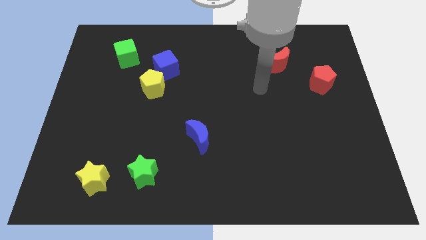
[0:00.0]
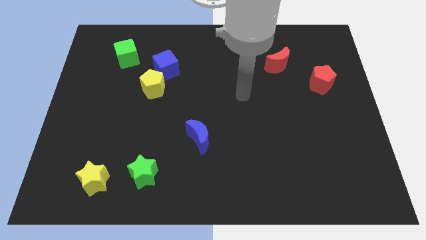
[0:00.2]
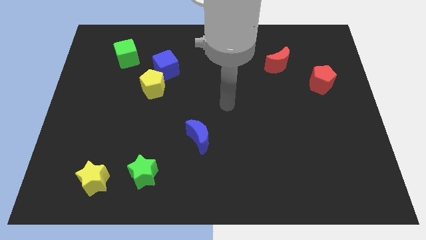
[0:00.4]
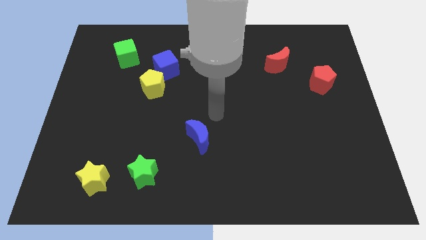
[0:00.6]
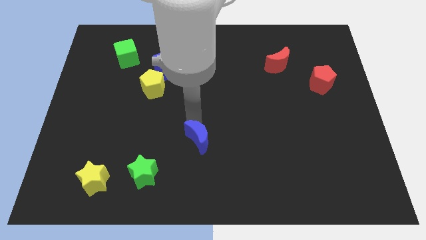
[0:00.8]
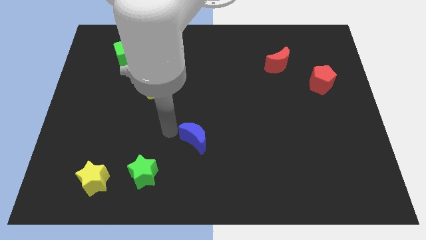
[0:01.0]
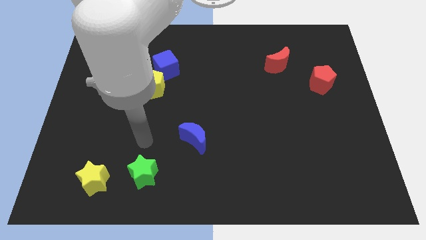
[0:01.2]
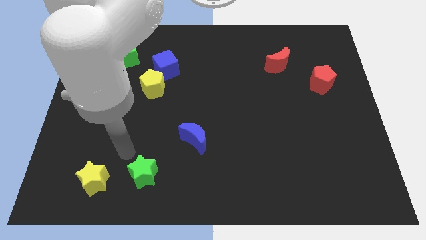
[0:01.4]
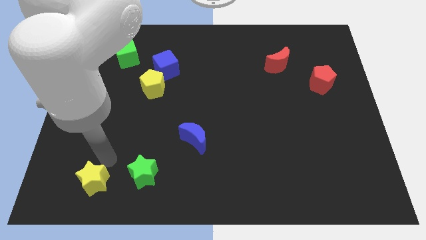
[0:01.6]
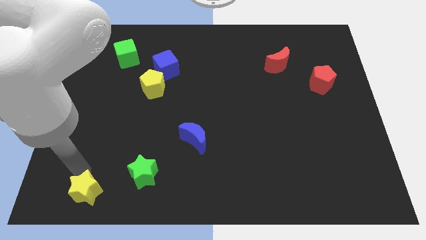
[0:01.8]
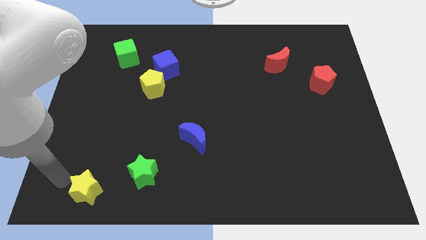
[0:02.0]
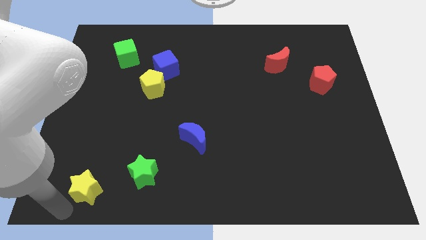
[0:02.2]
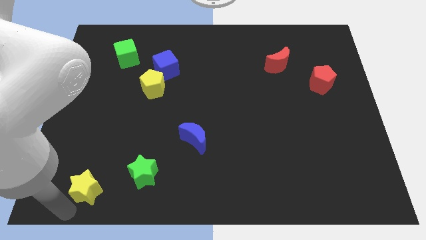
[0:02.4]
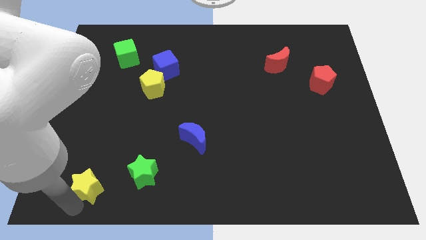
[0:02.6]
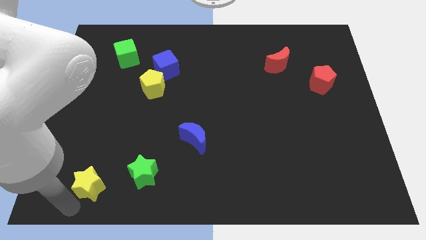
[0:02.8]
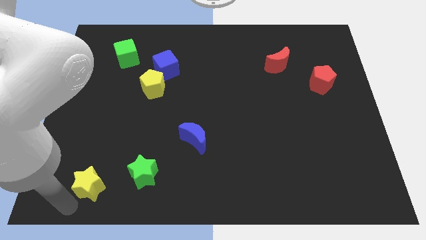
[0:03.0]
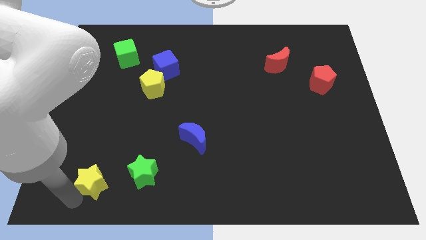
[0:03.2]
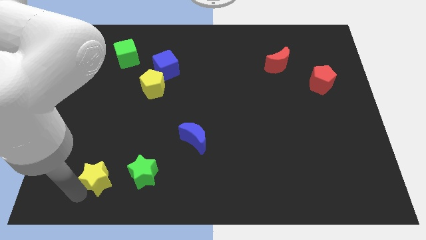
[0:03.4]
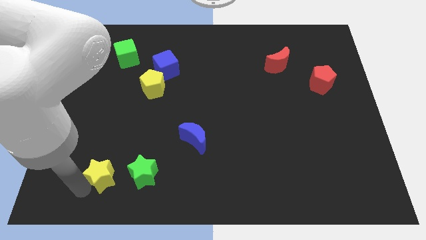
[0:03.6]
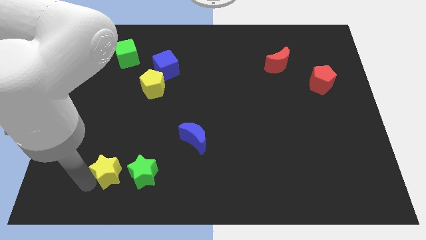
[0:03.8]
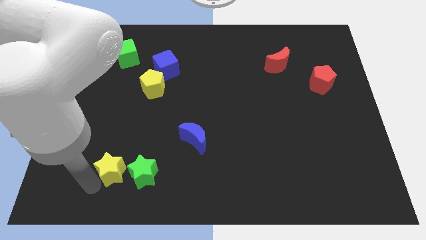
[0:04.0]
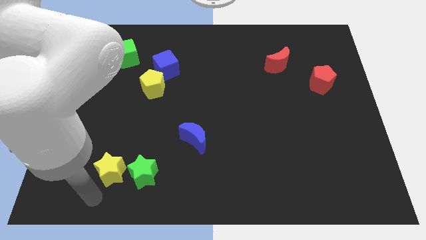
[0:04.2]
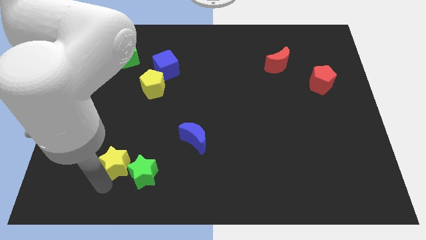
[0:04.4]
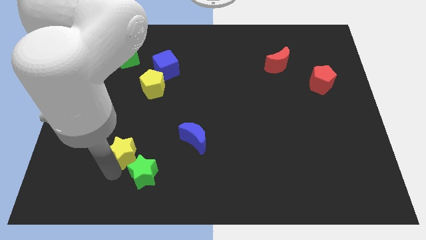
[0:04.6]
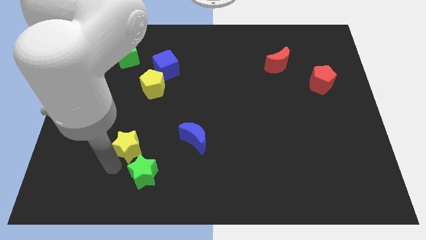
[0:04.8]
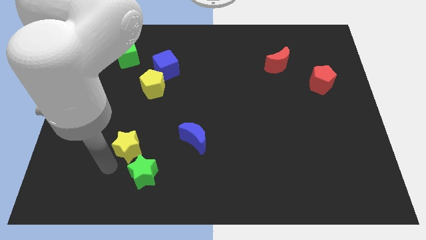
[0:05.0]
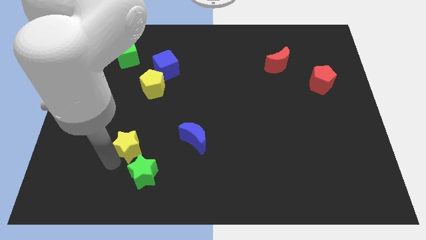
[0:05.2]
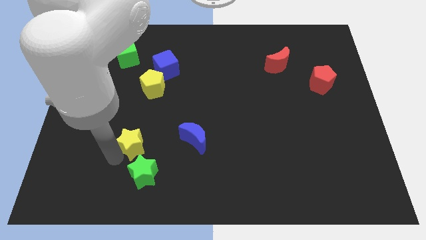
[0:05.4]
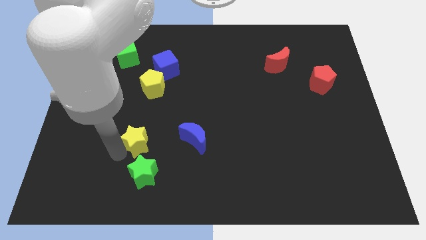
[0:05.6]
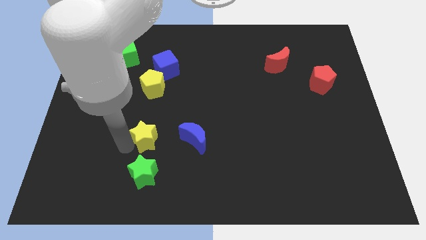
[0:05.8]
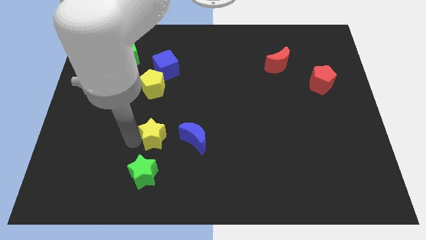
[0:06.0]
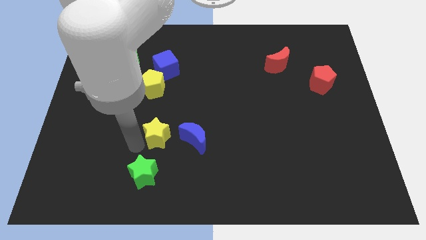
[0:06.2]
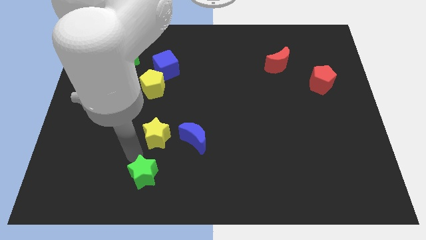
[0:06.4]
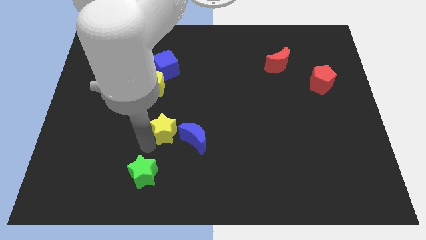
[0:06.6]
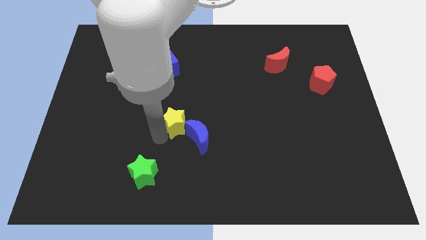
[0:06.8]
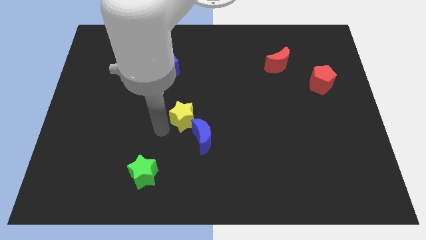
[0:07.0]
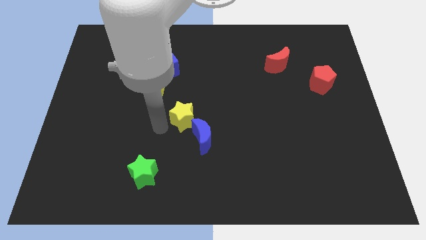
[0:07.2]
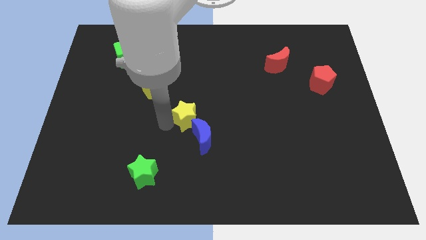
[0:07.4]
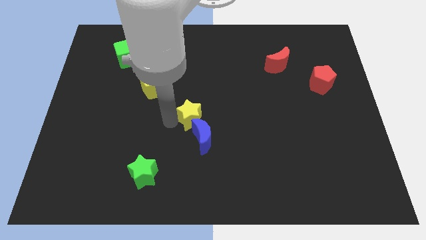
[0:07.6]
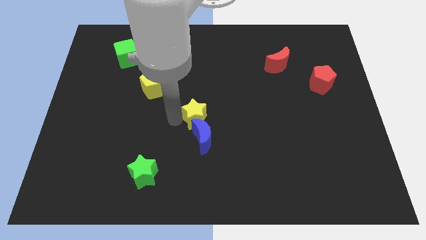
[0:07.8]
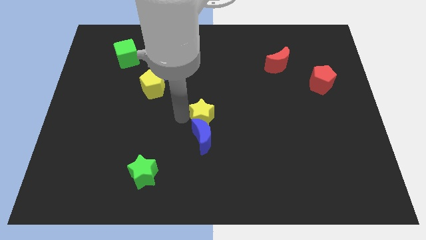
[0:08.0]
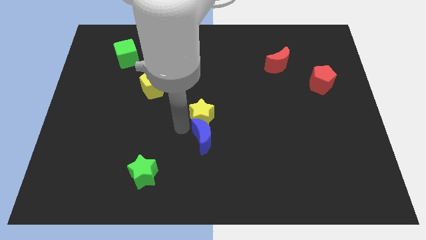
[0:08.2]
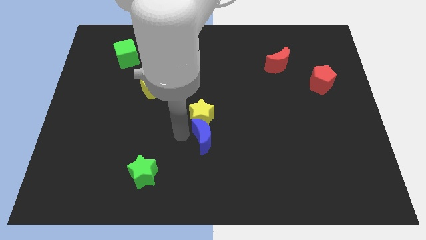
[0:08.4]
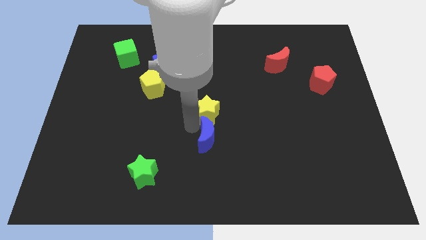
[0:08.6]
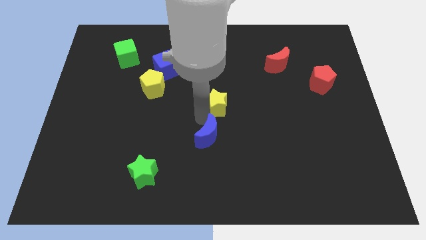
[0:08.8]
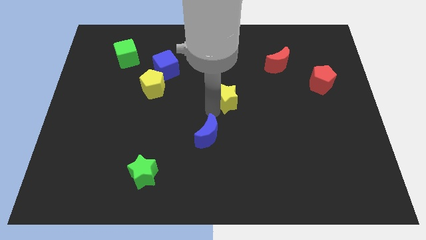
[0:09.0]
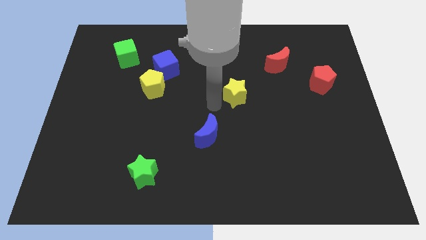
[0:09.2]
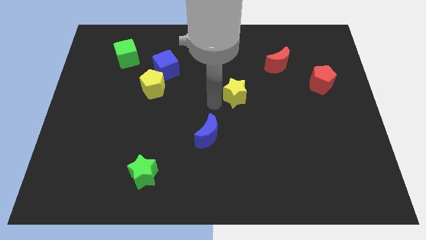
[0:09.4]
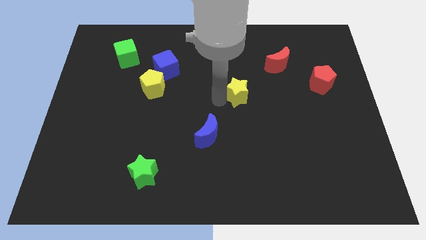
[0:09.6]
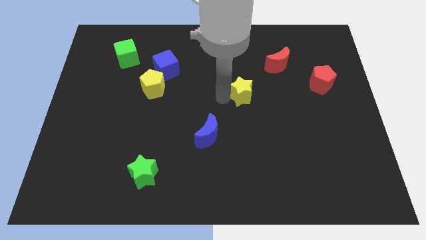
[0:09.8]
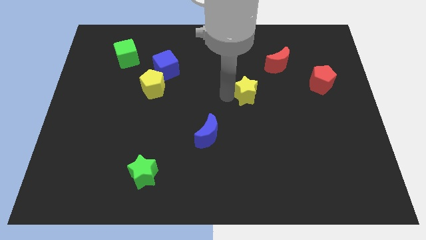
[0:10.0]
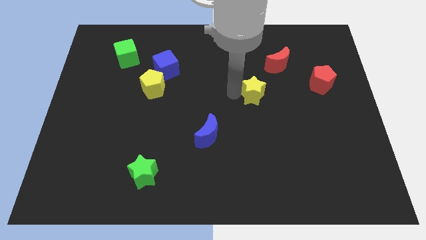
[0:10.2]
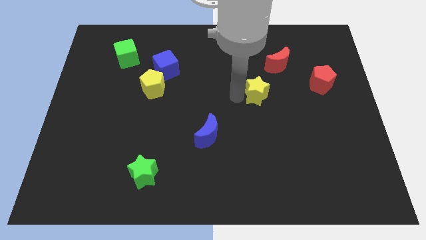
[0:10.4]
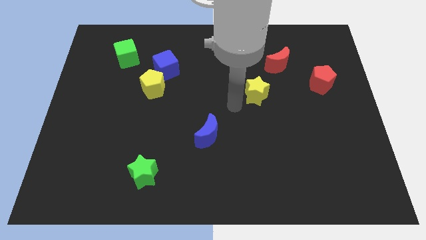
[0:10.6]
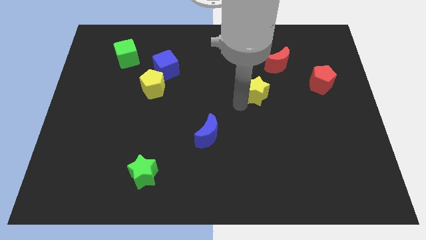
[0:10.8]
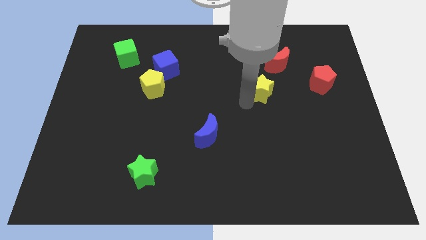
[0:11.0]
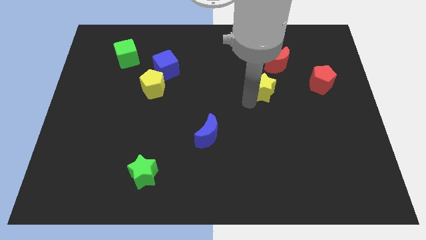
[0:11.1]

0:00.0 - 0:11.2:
move the yellow star to the left side of the red pentagon

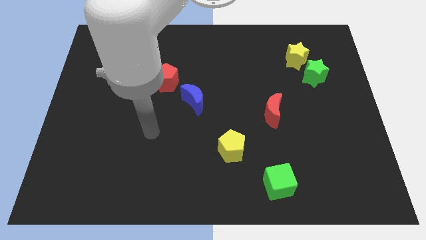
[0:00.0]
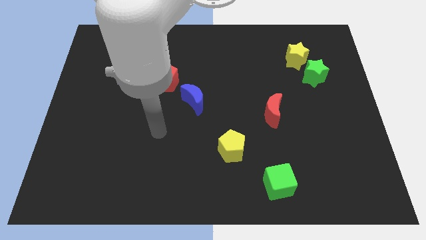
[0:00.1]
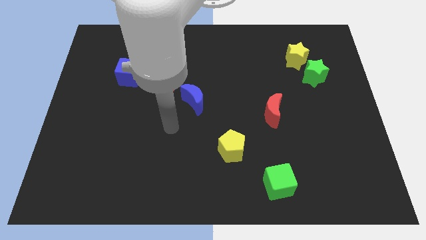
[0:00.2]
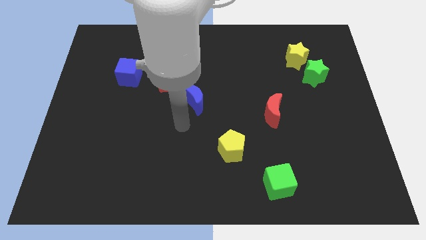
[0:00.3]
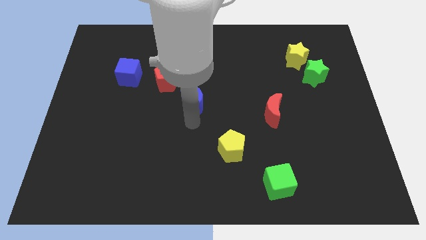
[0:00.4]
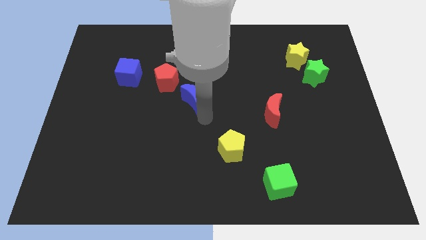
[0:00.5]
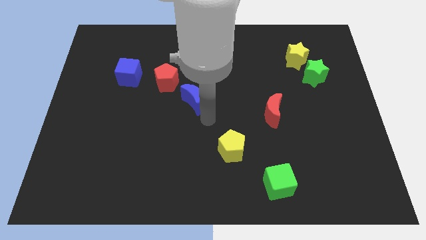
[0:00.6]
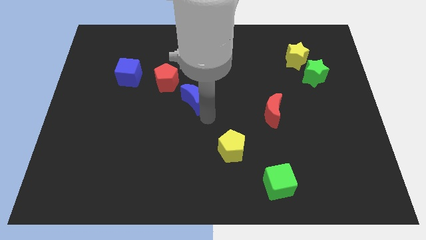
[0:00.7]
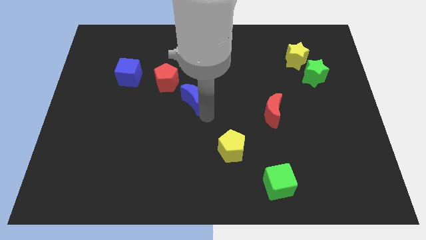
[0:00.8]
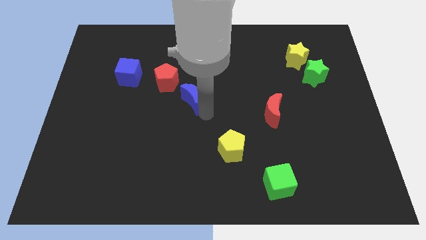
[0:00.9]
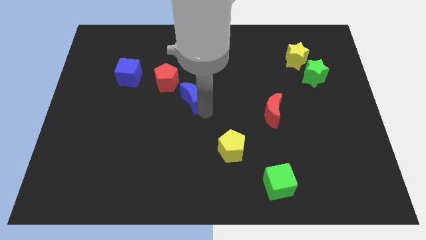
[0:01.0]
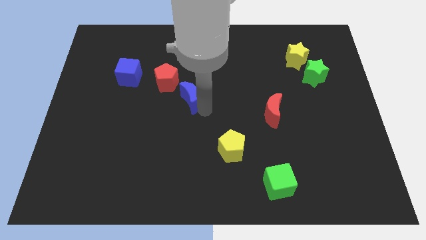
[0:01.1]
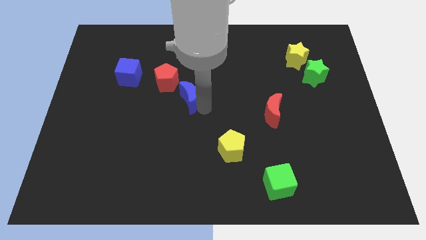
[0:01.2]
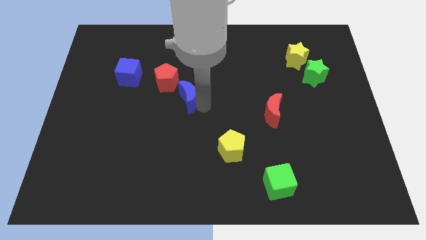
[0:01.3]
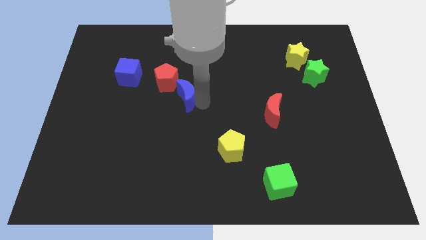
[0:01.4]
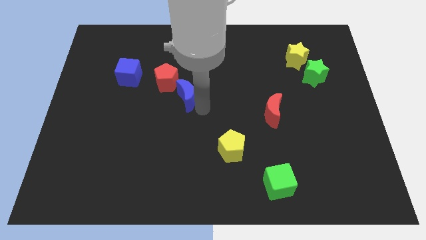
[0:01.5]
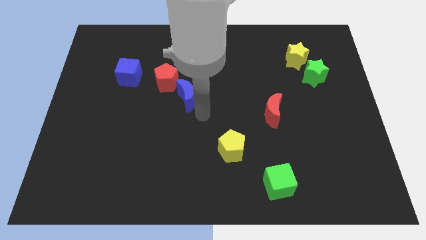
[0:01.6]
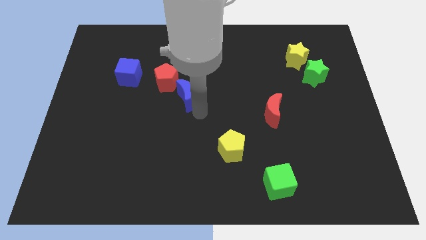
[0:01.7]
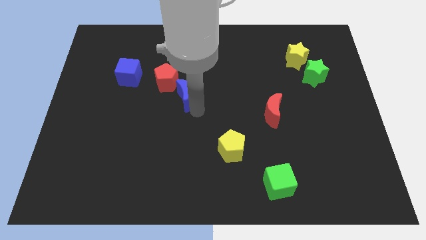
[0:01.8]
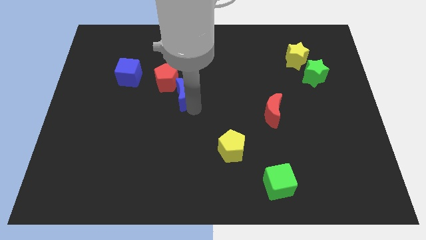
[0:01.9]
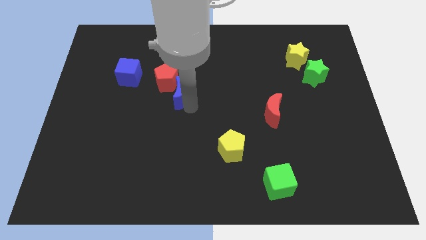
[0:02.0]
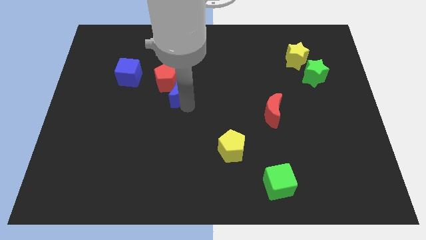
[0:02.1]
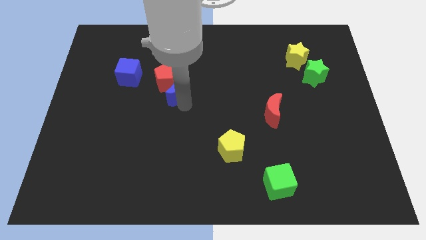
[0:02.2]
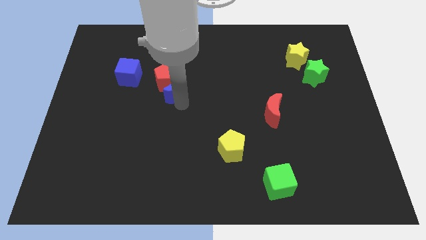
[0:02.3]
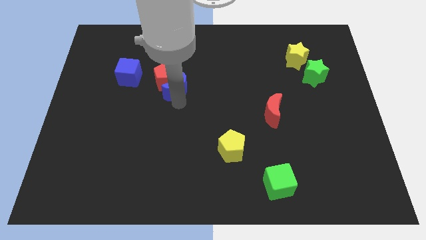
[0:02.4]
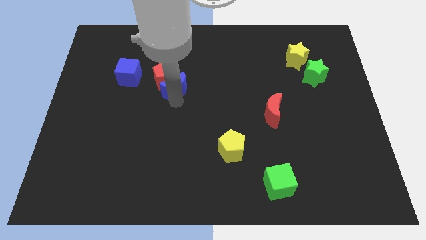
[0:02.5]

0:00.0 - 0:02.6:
push the blue moon to the right side of the blue cube
